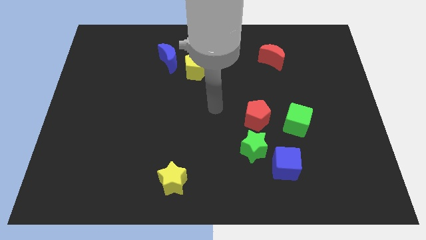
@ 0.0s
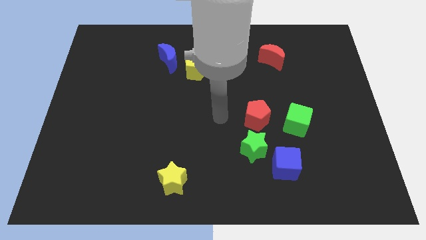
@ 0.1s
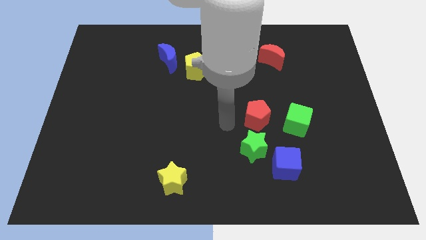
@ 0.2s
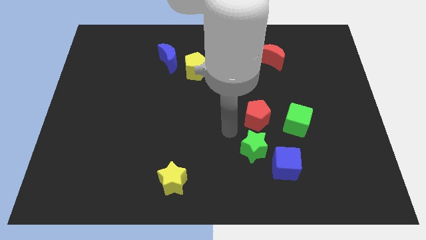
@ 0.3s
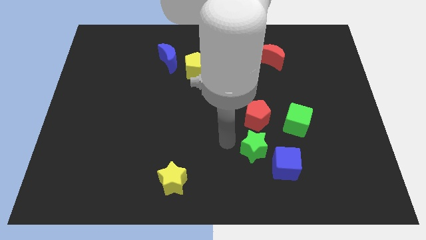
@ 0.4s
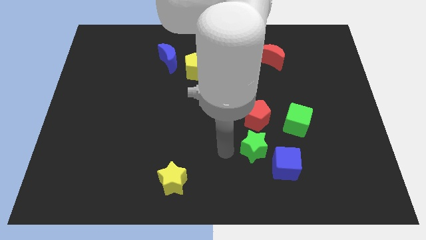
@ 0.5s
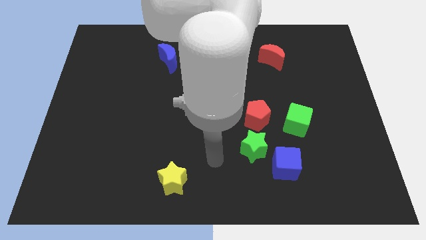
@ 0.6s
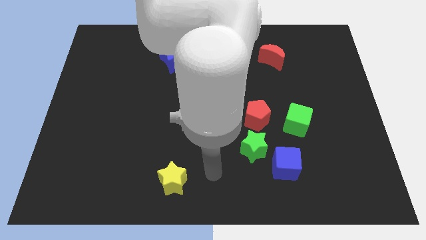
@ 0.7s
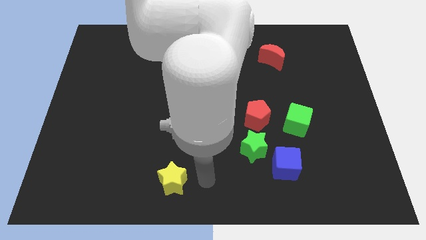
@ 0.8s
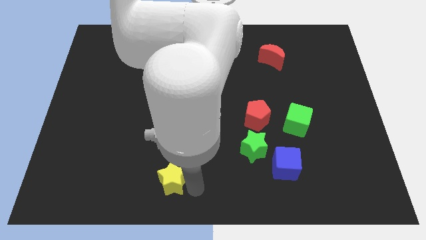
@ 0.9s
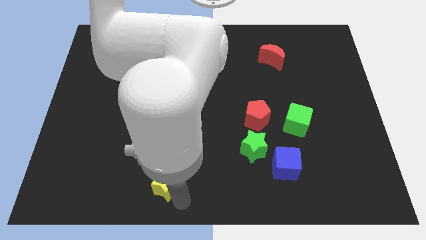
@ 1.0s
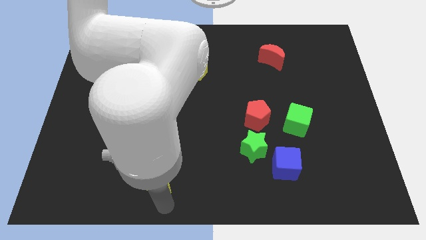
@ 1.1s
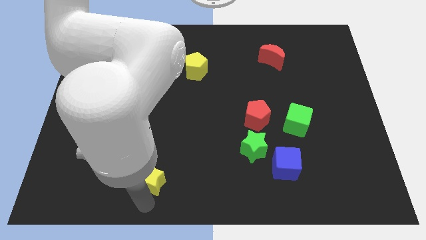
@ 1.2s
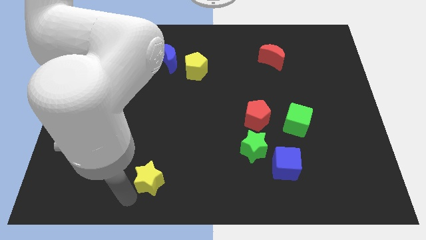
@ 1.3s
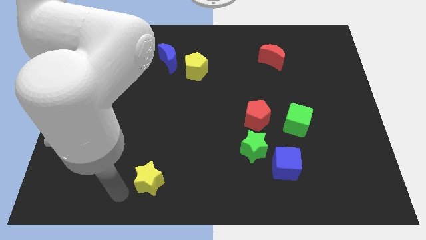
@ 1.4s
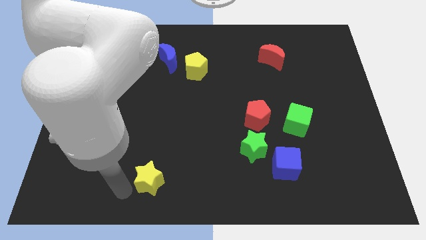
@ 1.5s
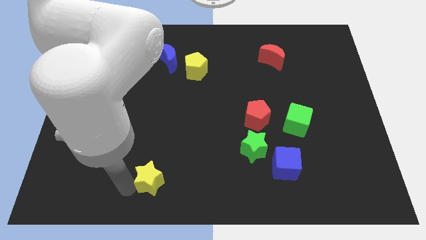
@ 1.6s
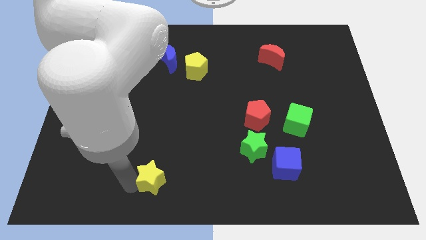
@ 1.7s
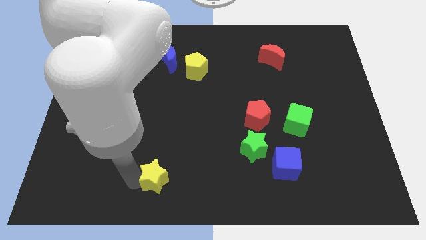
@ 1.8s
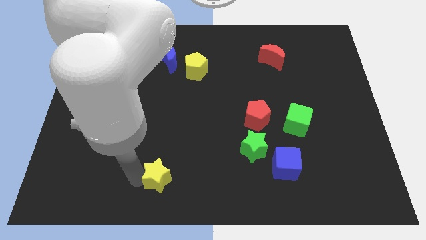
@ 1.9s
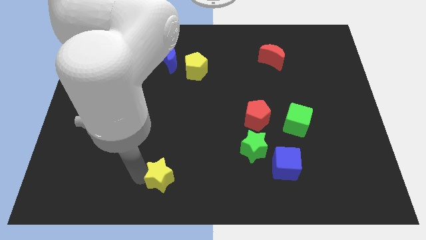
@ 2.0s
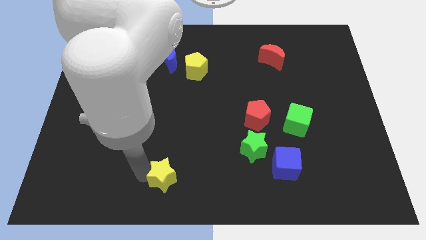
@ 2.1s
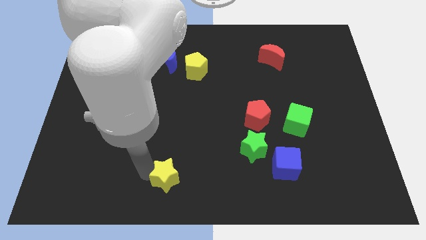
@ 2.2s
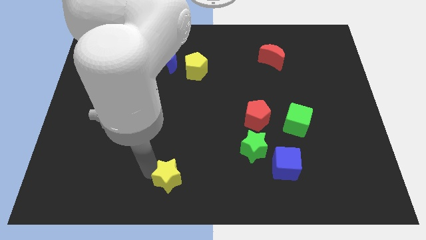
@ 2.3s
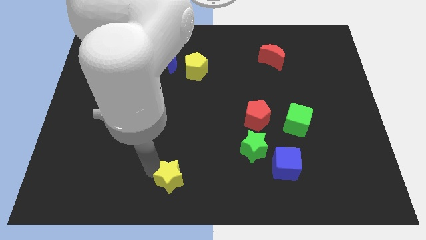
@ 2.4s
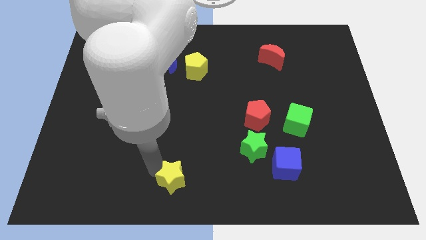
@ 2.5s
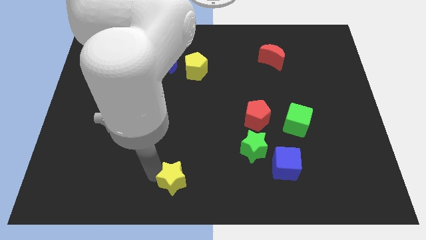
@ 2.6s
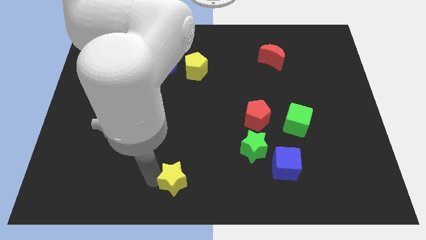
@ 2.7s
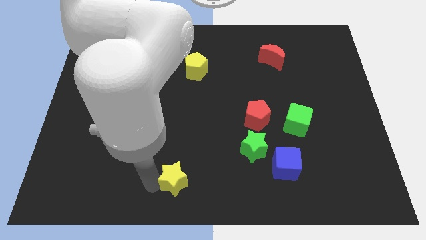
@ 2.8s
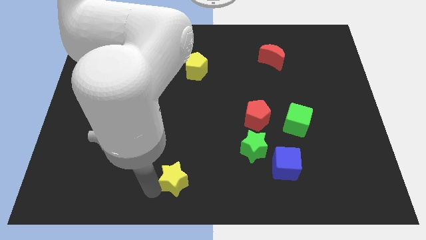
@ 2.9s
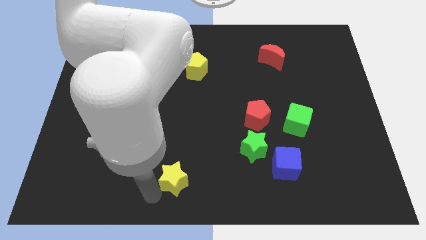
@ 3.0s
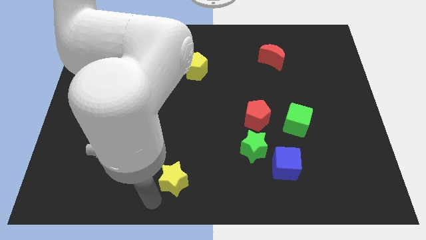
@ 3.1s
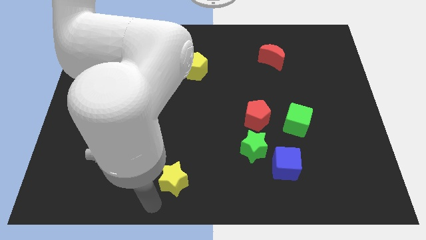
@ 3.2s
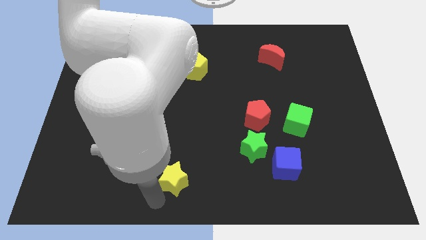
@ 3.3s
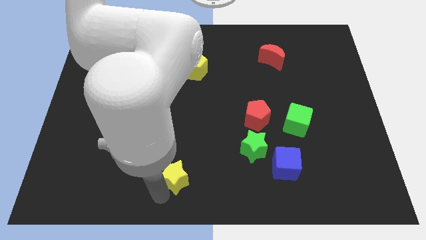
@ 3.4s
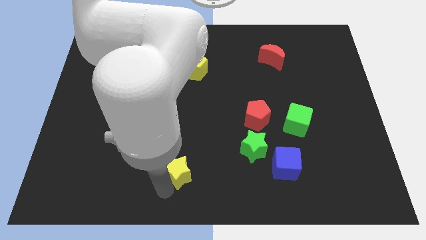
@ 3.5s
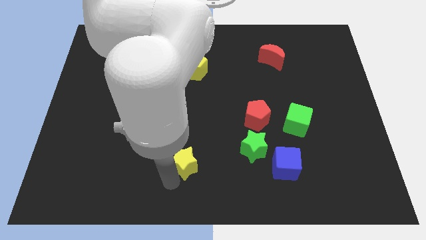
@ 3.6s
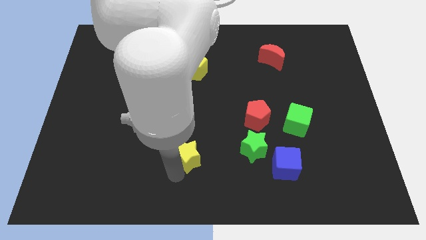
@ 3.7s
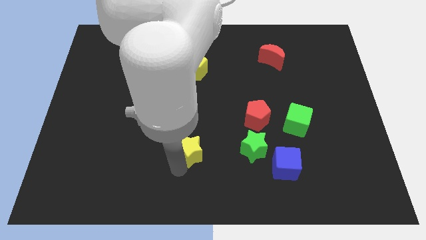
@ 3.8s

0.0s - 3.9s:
push the yellow star up and right a bit

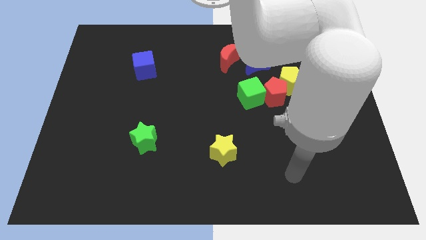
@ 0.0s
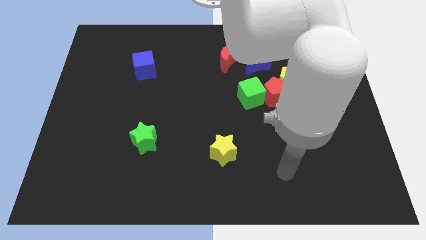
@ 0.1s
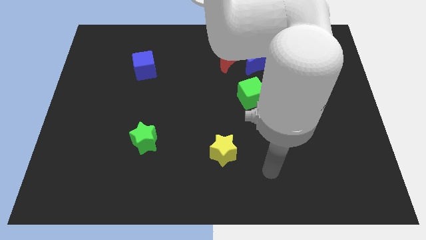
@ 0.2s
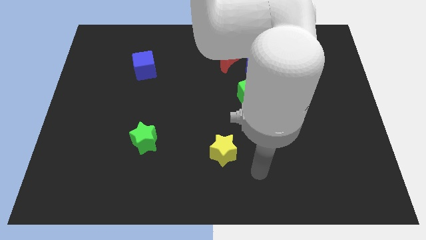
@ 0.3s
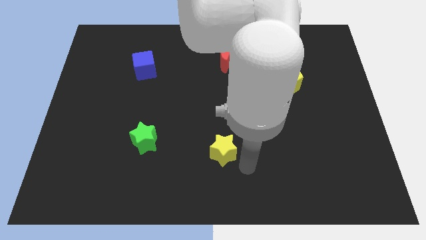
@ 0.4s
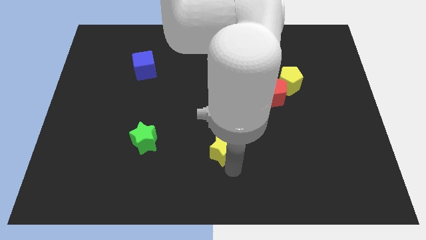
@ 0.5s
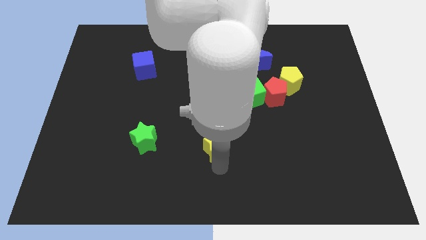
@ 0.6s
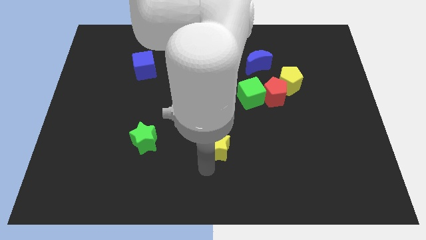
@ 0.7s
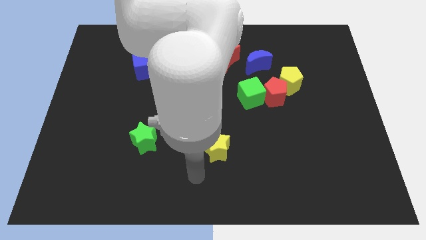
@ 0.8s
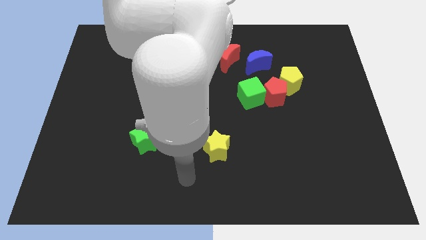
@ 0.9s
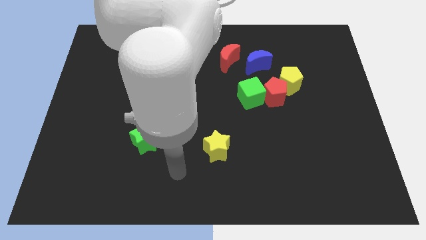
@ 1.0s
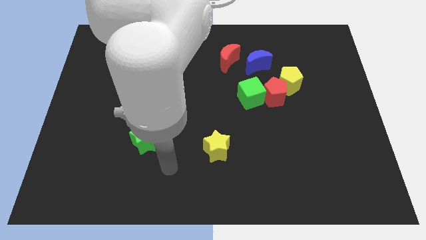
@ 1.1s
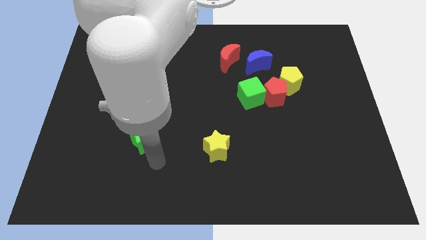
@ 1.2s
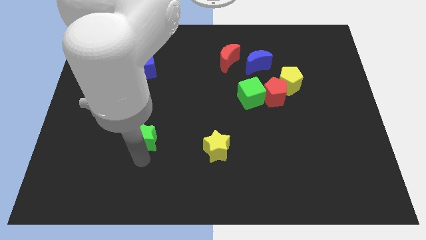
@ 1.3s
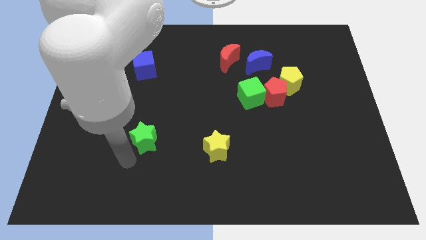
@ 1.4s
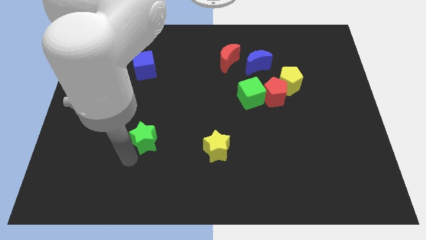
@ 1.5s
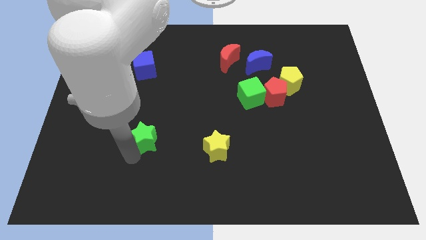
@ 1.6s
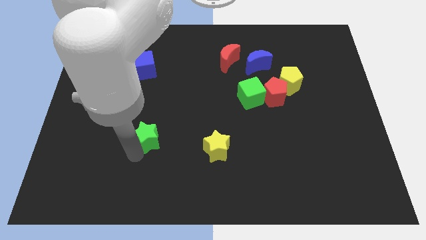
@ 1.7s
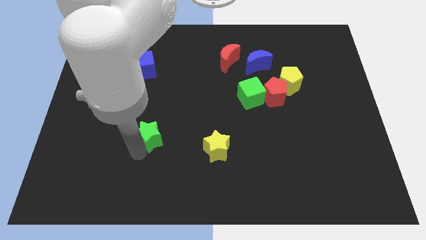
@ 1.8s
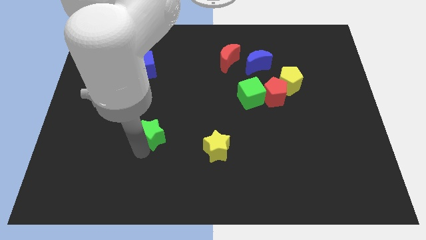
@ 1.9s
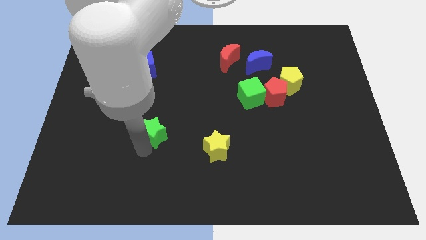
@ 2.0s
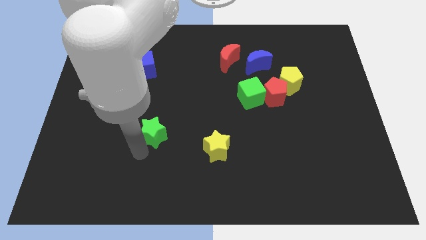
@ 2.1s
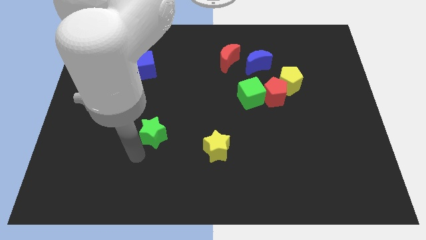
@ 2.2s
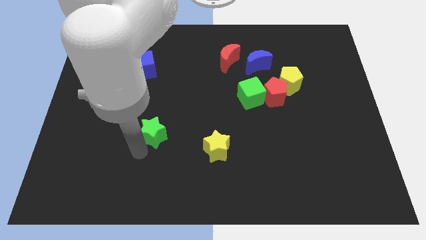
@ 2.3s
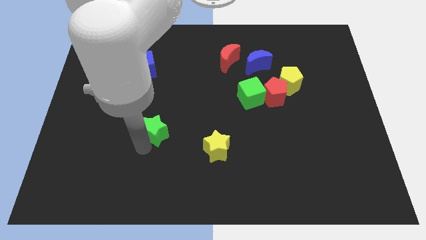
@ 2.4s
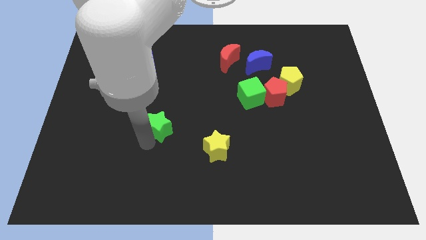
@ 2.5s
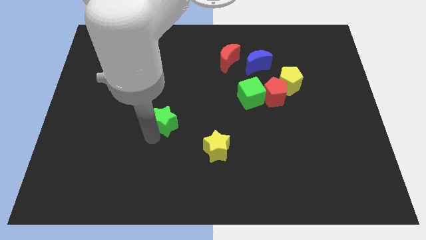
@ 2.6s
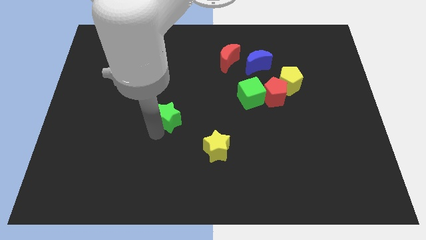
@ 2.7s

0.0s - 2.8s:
move the green star diagonally upwards and right a little

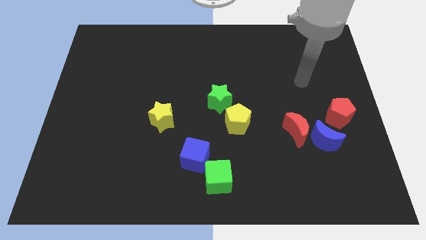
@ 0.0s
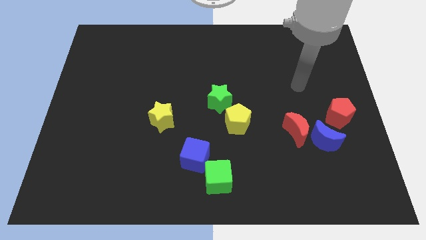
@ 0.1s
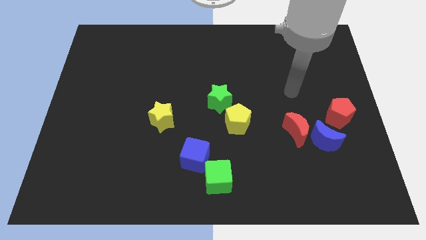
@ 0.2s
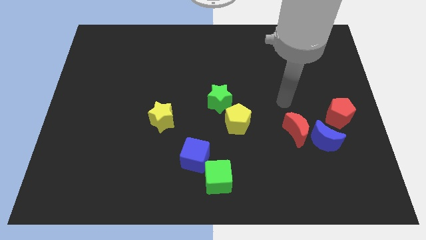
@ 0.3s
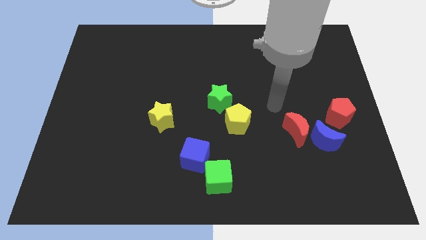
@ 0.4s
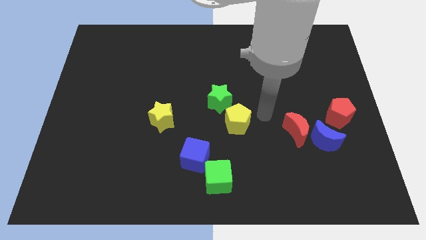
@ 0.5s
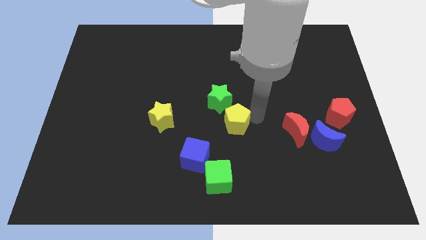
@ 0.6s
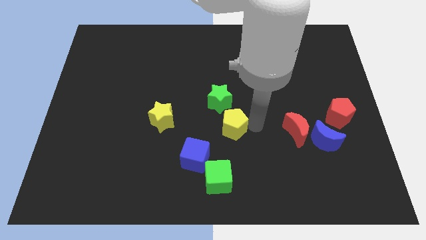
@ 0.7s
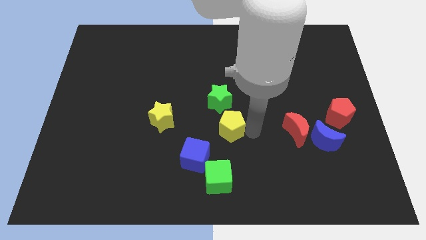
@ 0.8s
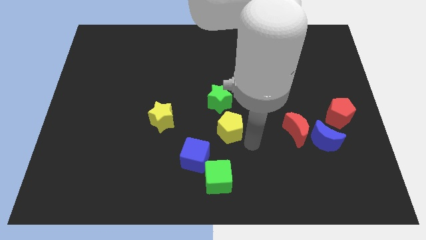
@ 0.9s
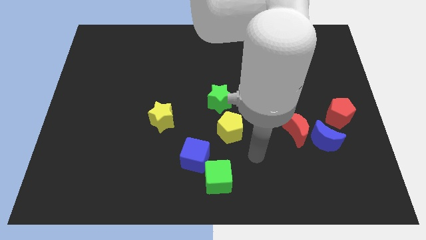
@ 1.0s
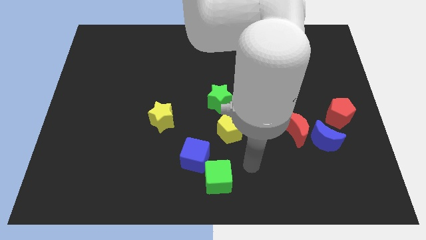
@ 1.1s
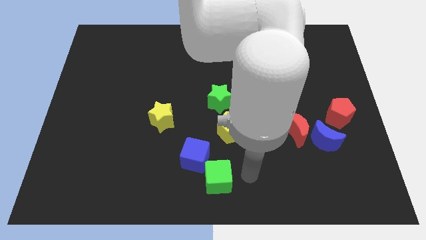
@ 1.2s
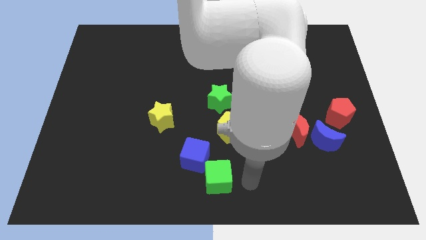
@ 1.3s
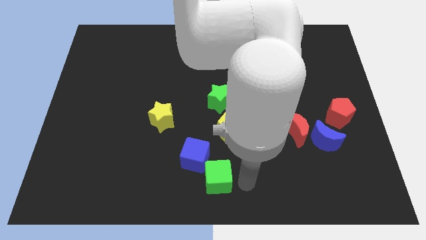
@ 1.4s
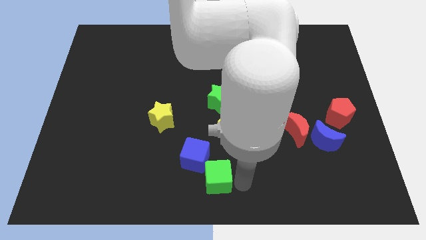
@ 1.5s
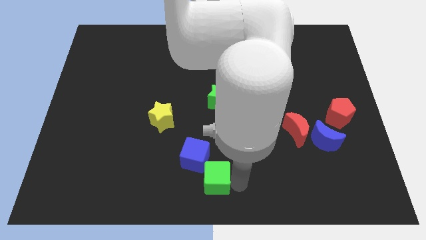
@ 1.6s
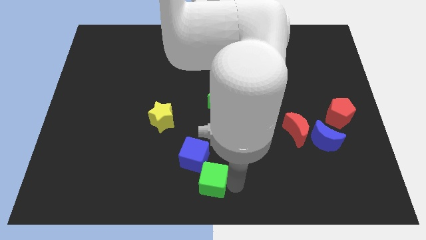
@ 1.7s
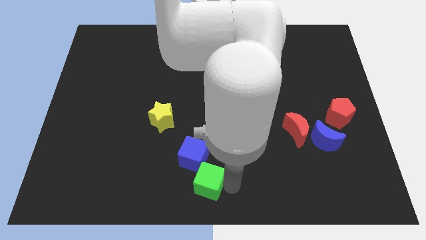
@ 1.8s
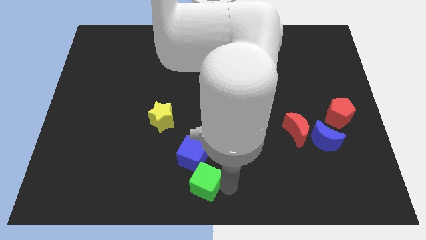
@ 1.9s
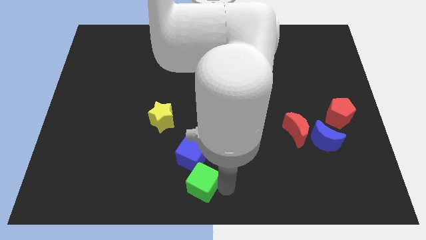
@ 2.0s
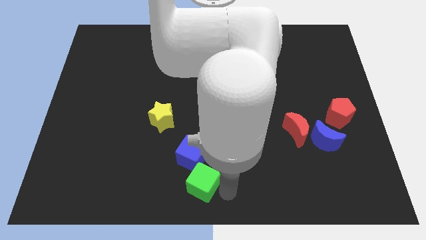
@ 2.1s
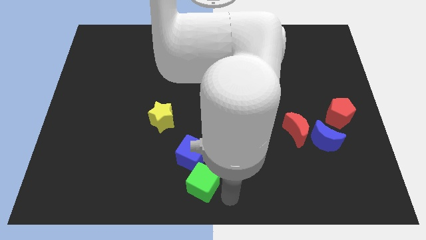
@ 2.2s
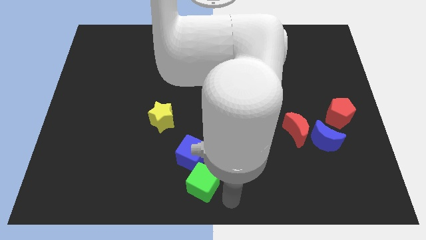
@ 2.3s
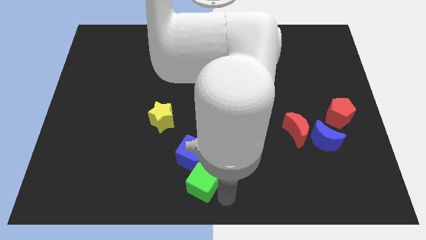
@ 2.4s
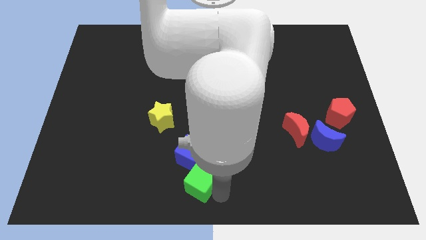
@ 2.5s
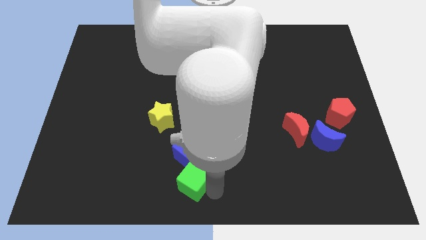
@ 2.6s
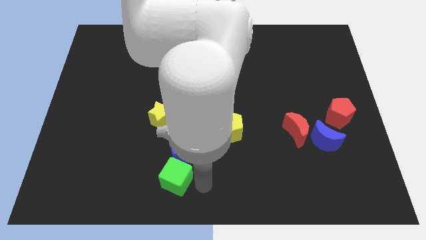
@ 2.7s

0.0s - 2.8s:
slide the green cube left slightly
